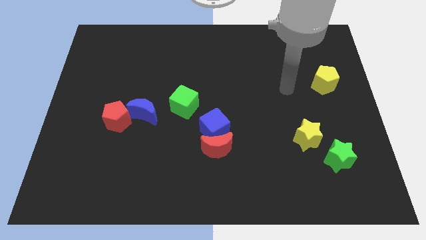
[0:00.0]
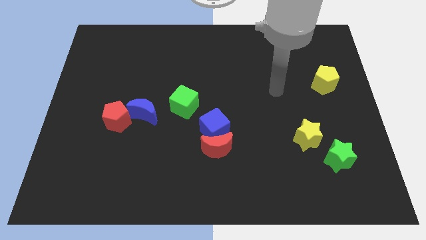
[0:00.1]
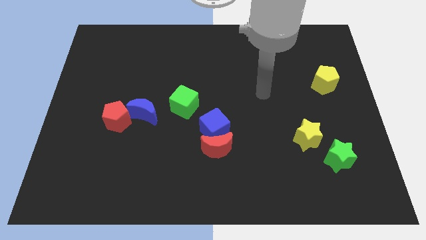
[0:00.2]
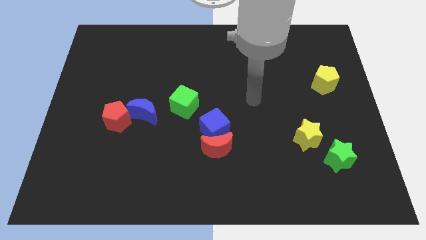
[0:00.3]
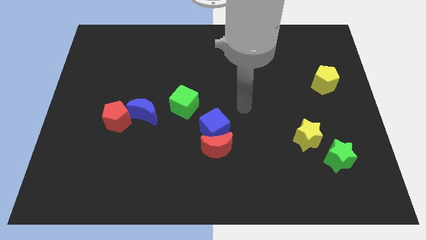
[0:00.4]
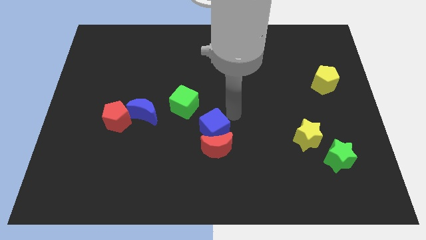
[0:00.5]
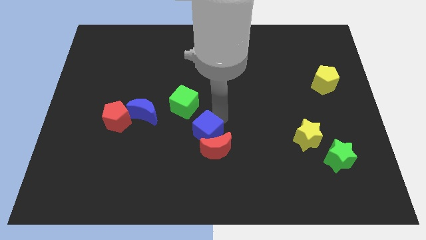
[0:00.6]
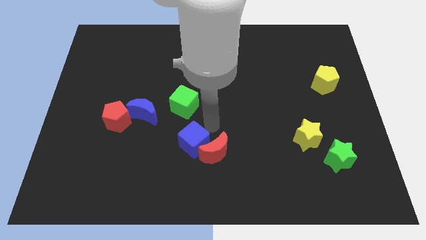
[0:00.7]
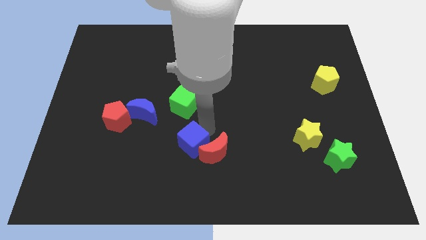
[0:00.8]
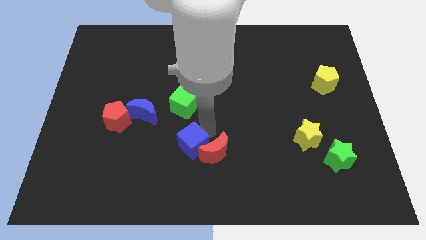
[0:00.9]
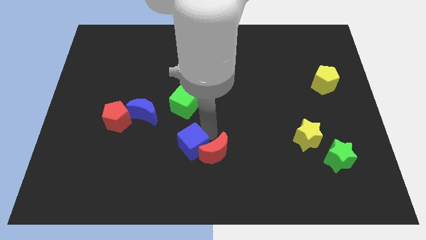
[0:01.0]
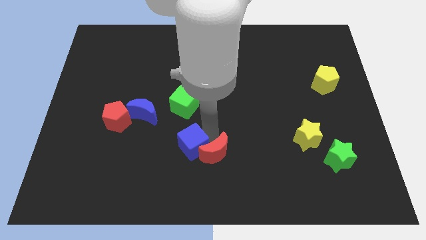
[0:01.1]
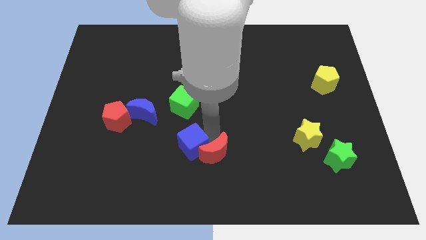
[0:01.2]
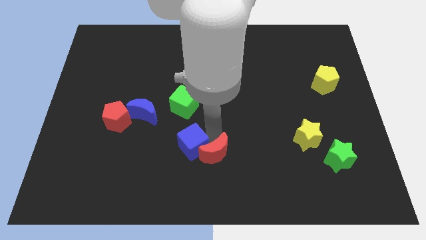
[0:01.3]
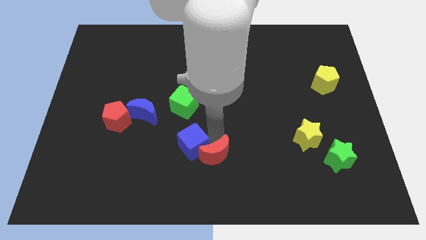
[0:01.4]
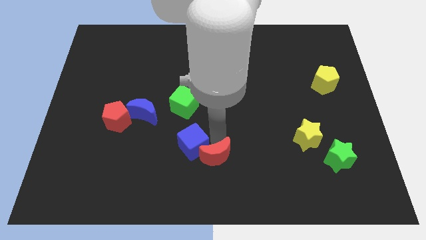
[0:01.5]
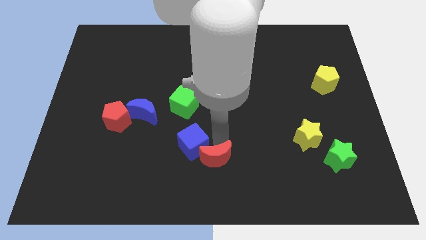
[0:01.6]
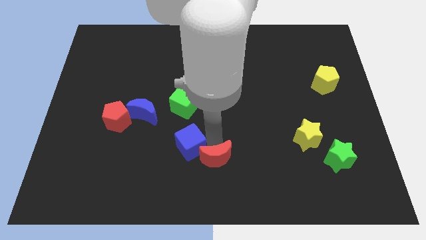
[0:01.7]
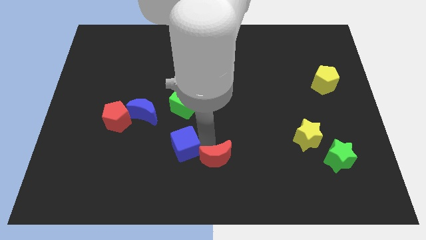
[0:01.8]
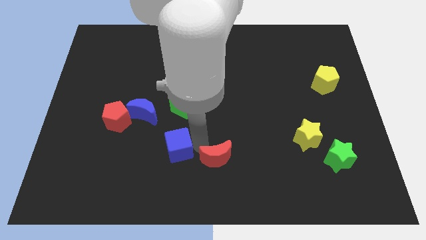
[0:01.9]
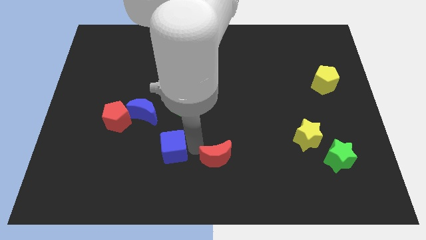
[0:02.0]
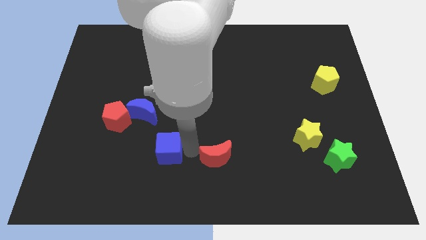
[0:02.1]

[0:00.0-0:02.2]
separate the red moon from the blue cube

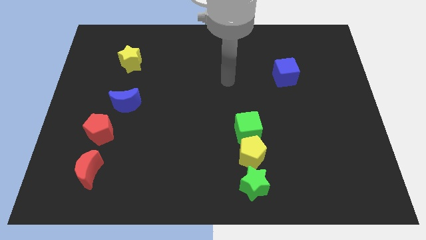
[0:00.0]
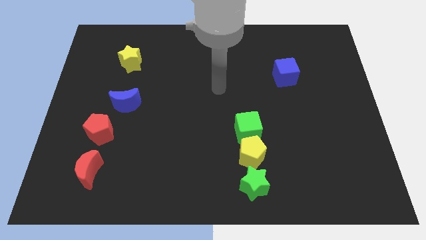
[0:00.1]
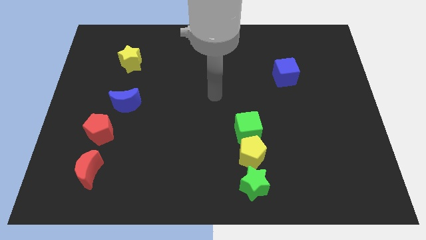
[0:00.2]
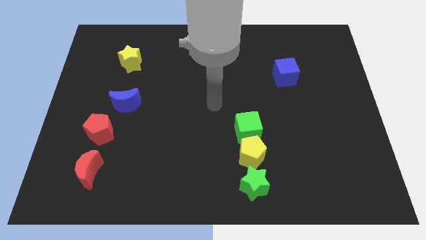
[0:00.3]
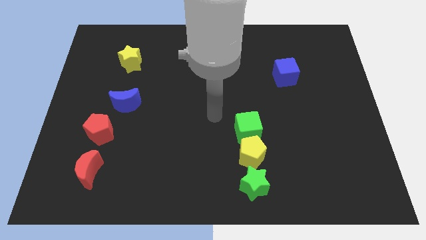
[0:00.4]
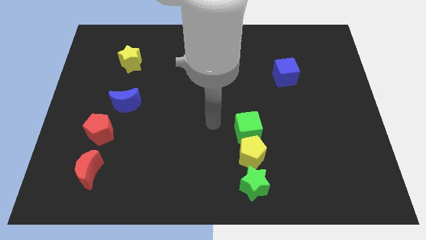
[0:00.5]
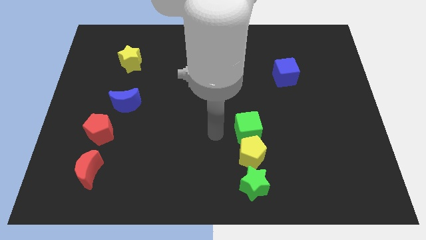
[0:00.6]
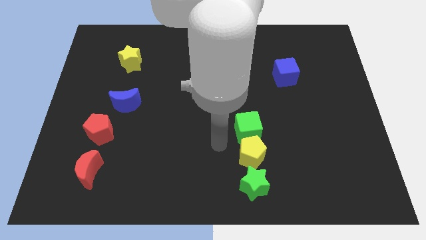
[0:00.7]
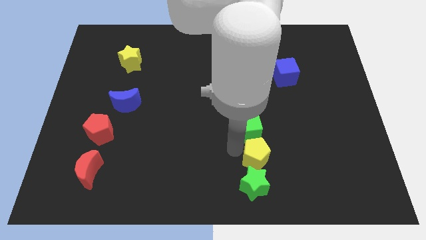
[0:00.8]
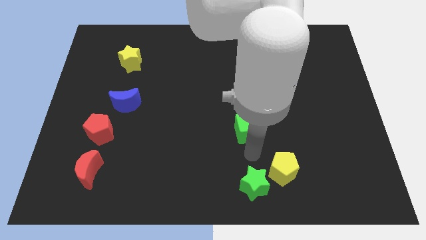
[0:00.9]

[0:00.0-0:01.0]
move the green cube away from the yellow pentagon

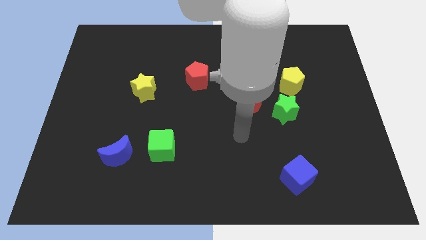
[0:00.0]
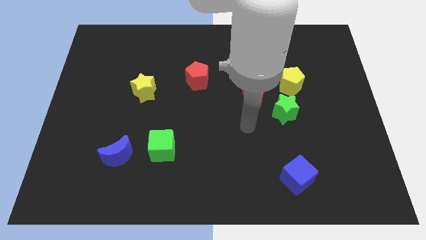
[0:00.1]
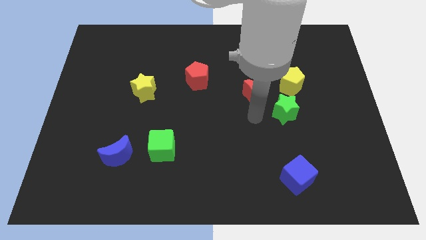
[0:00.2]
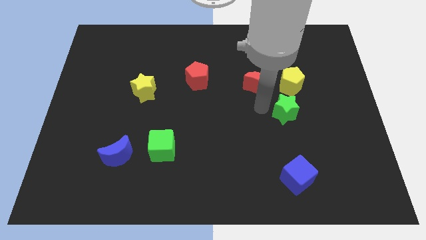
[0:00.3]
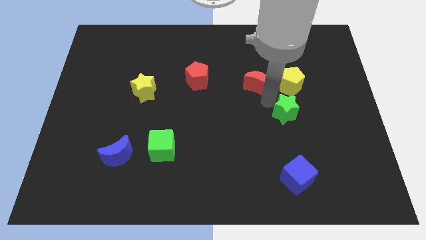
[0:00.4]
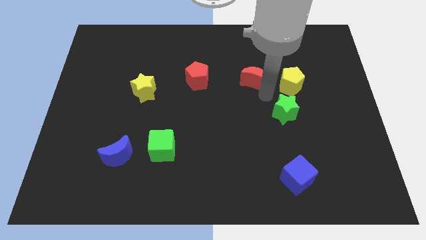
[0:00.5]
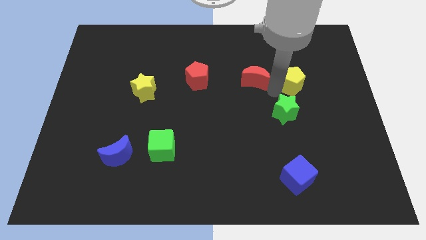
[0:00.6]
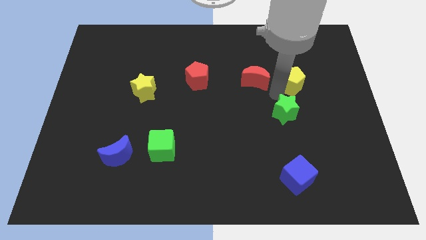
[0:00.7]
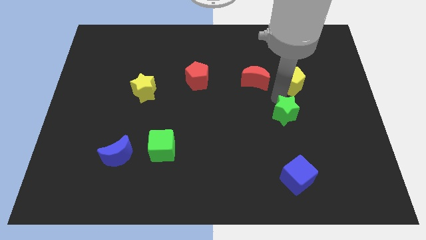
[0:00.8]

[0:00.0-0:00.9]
move the green star away from the red moon and yellow pentagon

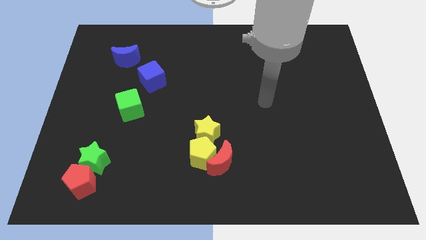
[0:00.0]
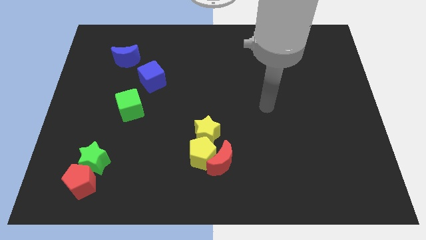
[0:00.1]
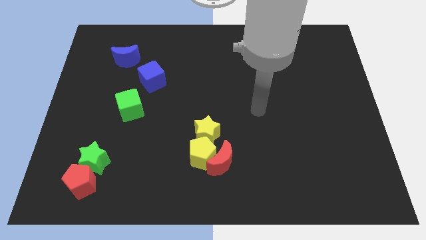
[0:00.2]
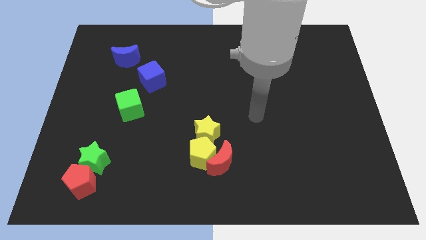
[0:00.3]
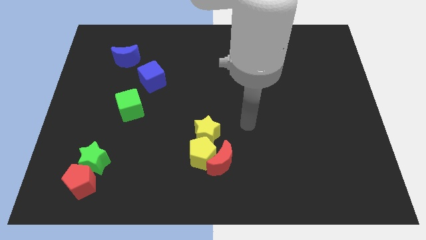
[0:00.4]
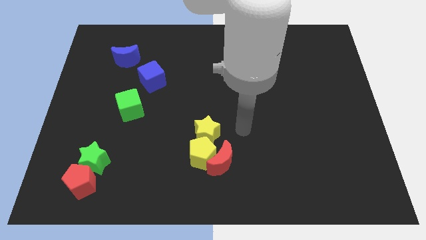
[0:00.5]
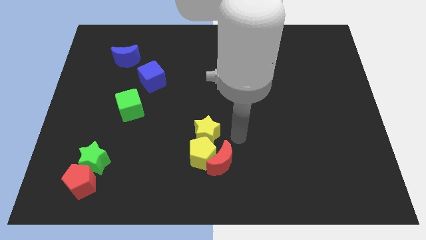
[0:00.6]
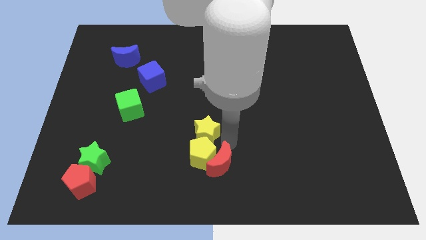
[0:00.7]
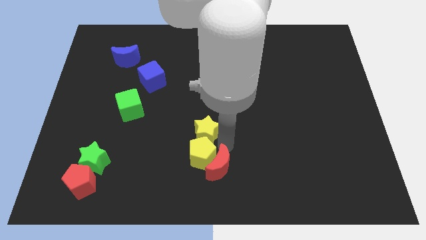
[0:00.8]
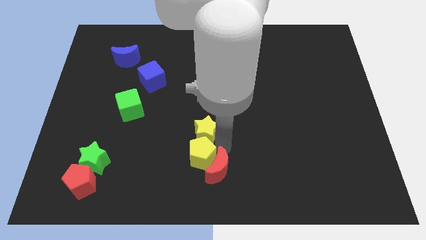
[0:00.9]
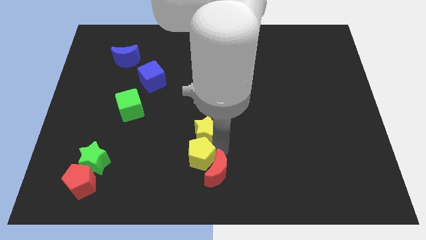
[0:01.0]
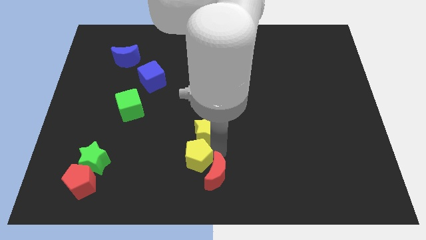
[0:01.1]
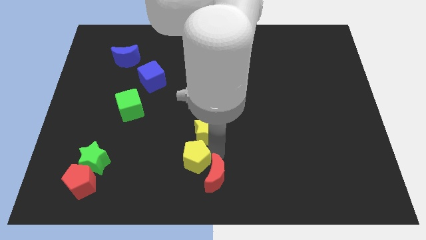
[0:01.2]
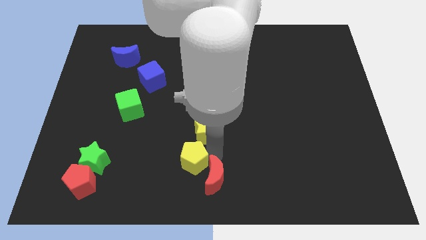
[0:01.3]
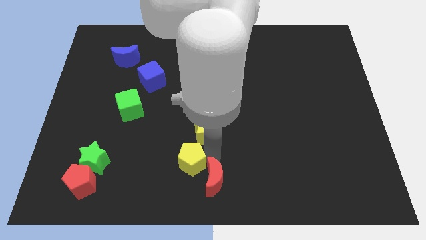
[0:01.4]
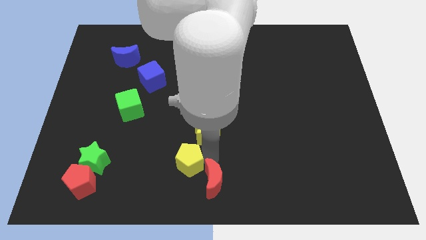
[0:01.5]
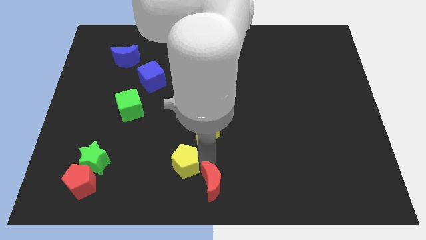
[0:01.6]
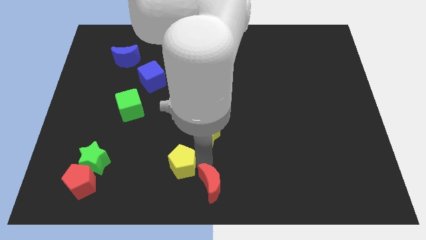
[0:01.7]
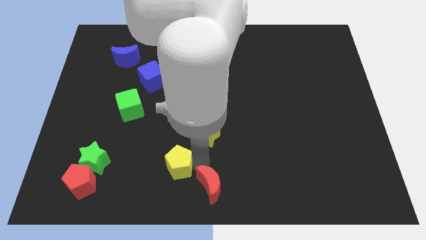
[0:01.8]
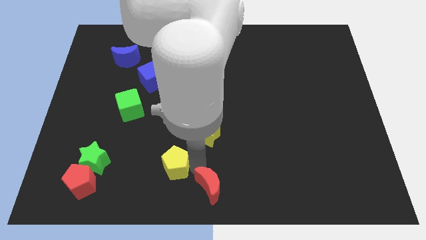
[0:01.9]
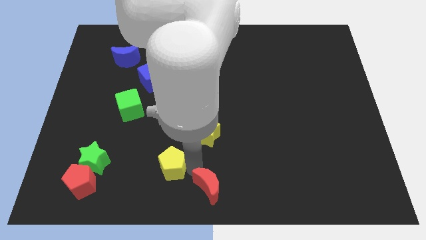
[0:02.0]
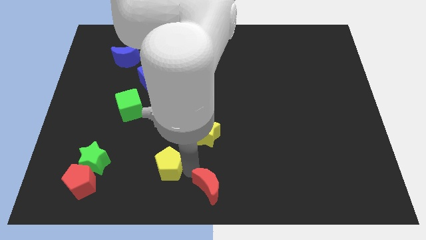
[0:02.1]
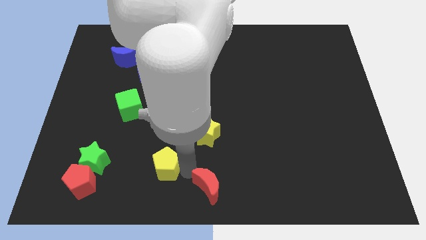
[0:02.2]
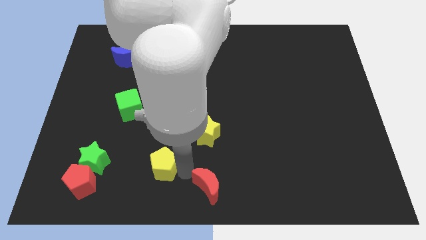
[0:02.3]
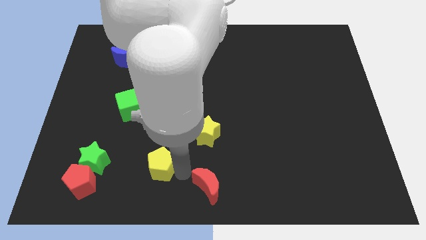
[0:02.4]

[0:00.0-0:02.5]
pull the yellow pentagon apart from the red moon and yellow star

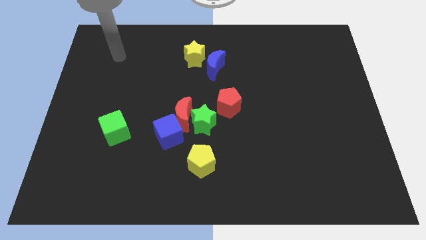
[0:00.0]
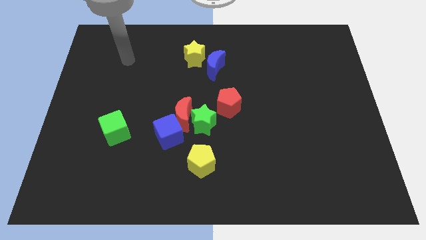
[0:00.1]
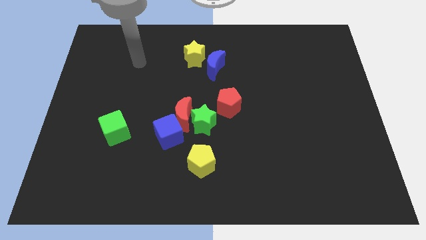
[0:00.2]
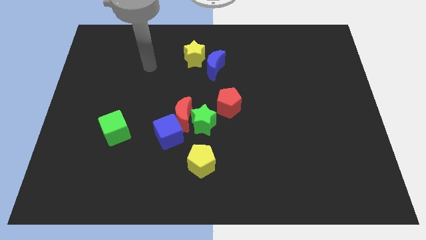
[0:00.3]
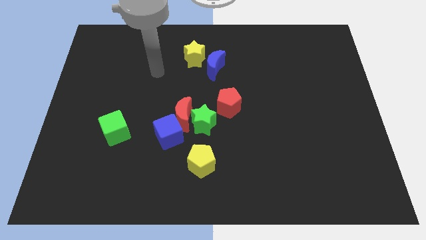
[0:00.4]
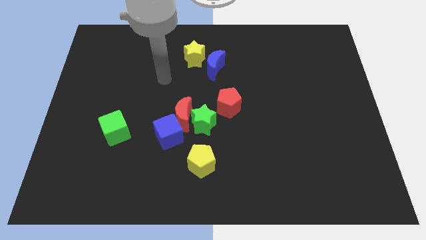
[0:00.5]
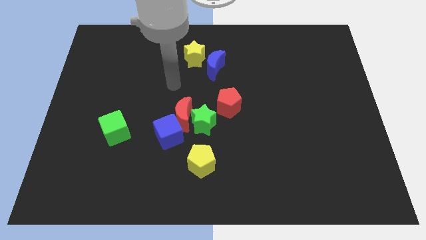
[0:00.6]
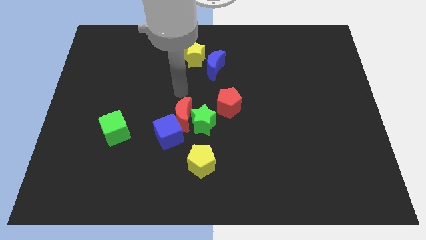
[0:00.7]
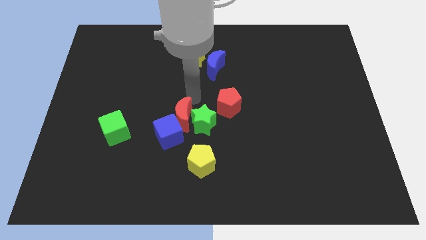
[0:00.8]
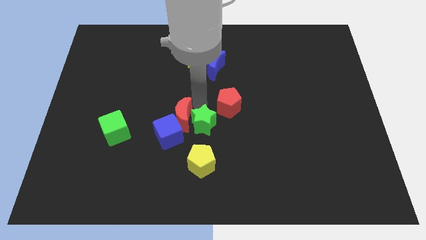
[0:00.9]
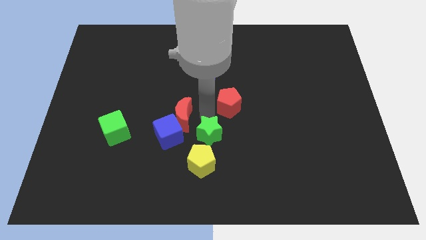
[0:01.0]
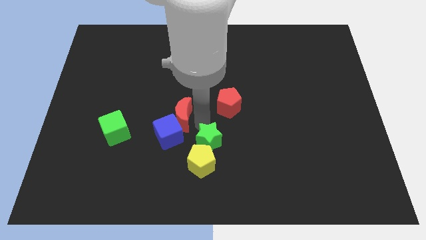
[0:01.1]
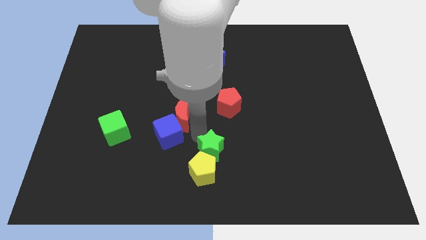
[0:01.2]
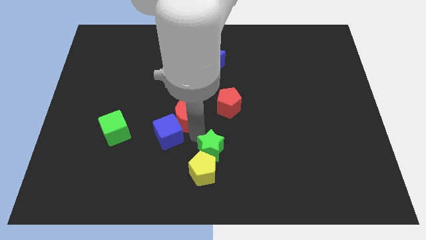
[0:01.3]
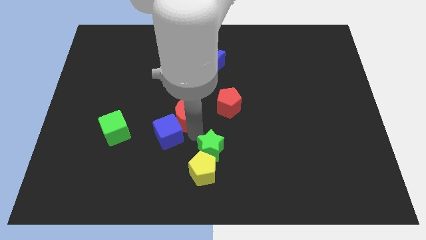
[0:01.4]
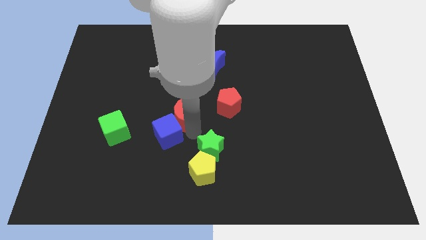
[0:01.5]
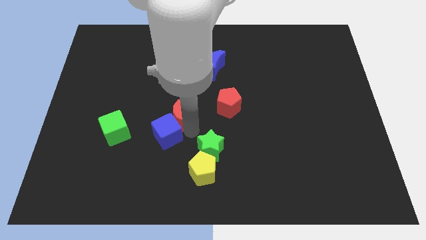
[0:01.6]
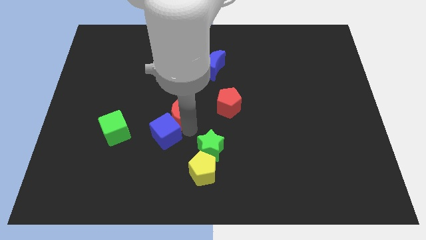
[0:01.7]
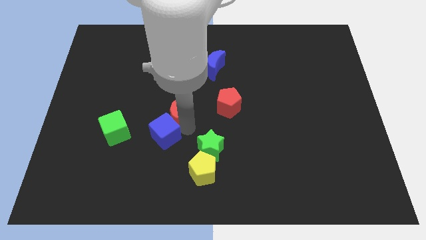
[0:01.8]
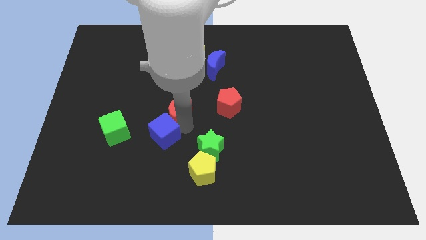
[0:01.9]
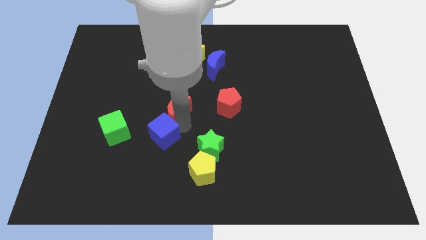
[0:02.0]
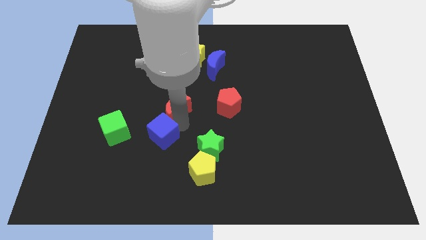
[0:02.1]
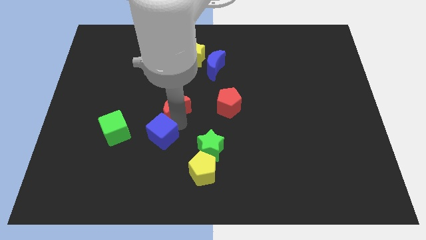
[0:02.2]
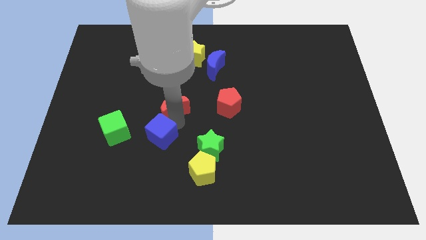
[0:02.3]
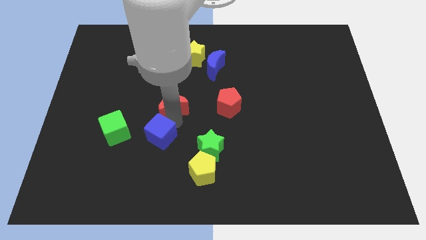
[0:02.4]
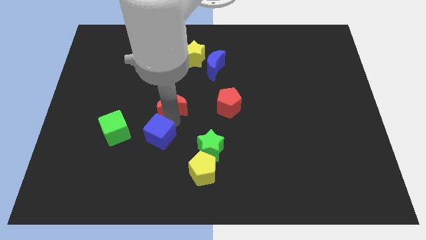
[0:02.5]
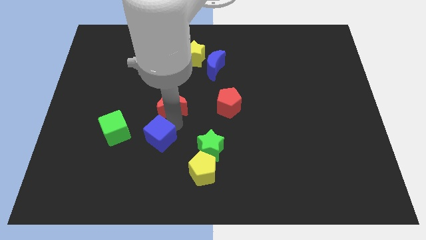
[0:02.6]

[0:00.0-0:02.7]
separate the red moon from the green star and blue cube

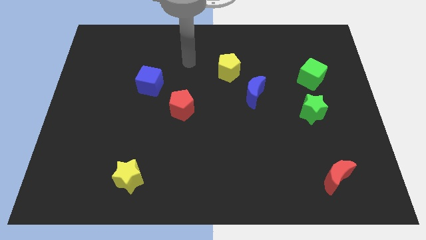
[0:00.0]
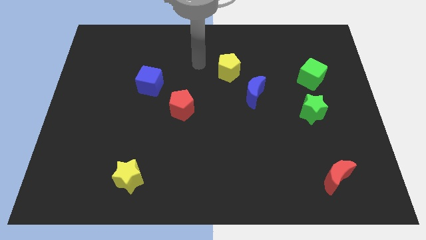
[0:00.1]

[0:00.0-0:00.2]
pull the blue moon apart from the yellow pentagon
